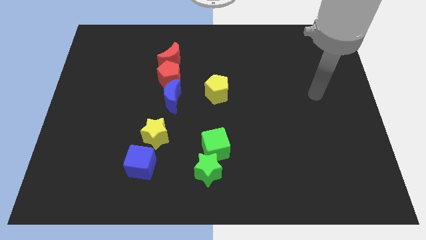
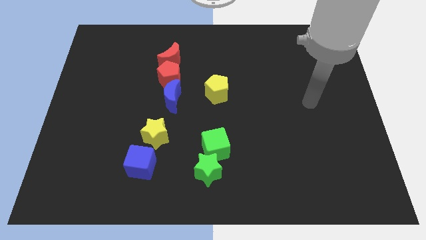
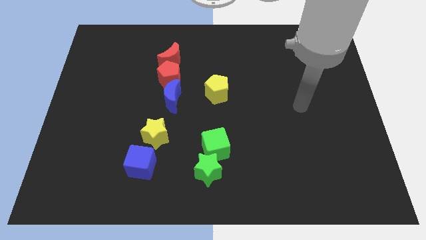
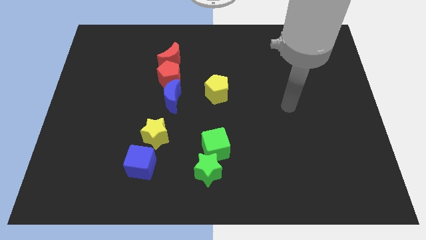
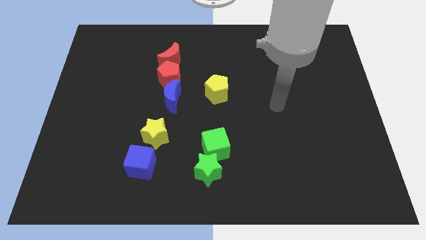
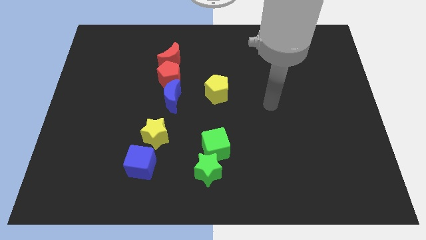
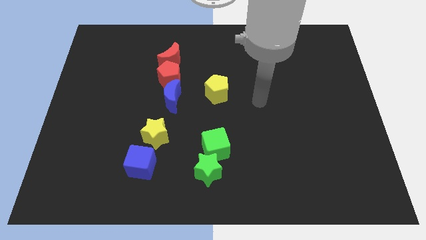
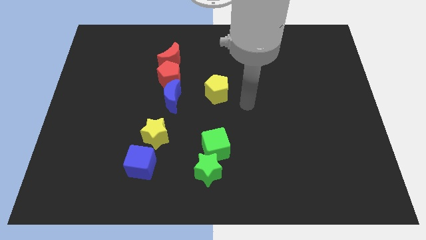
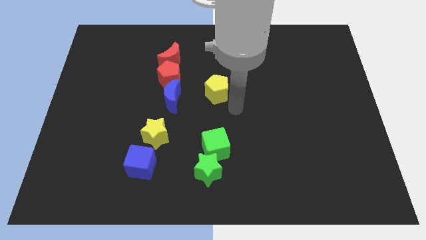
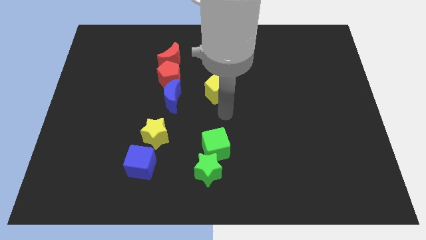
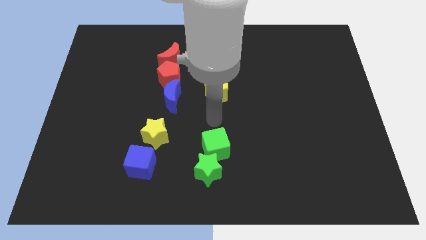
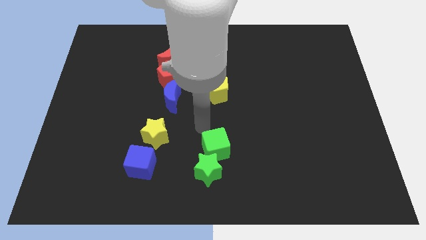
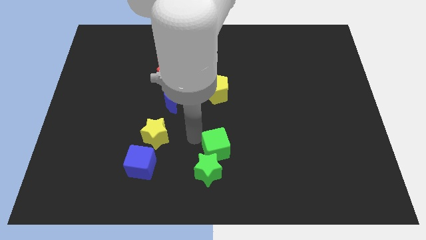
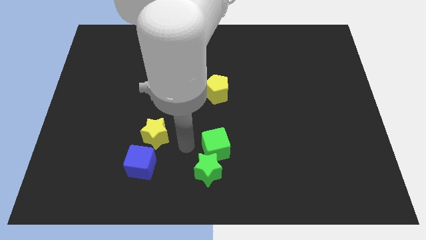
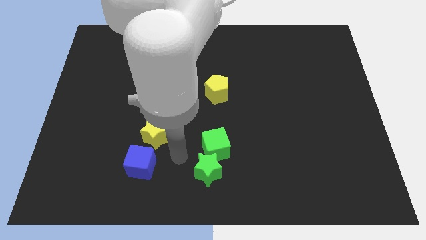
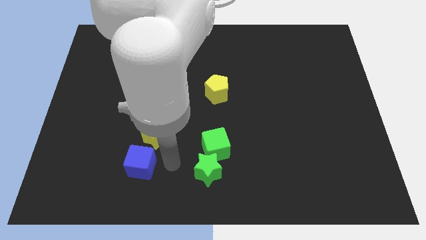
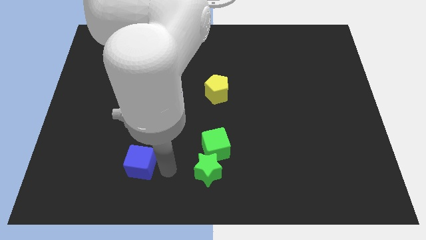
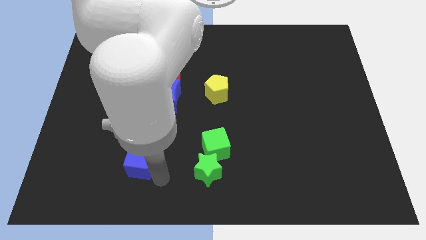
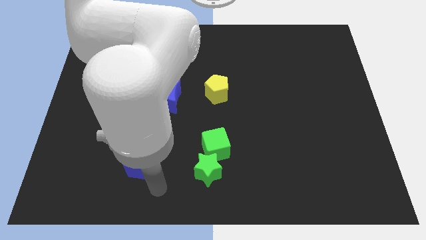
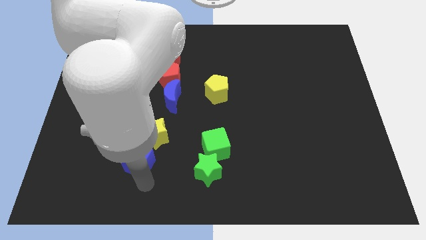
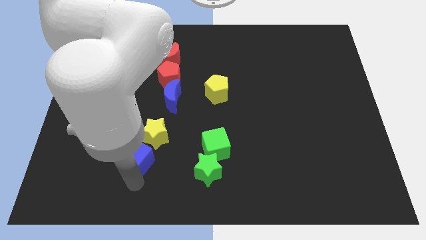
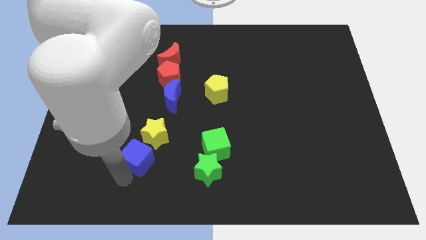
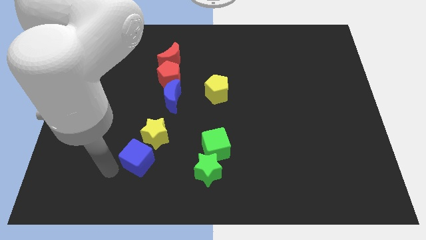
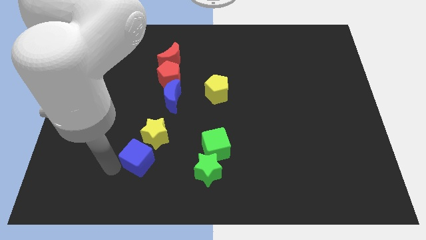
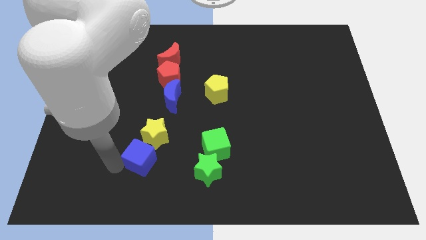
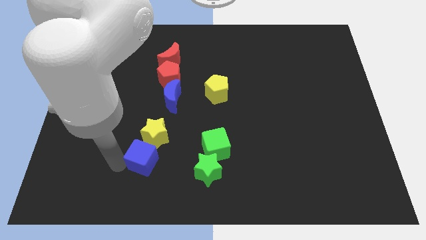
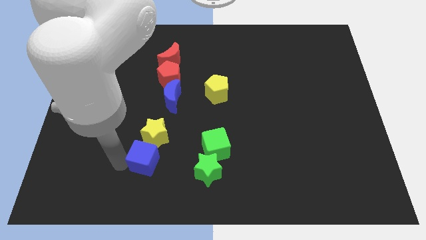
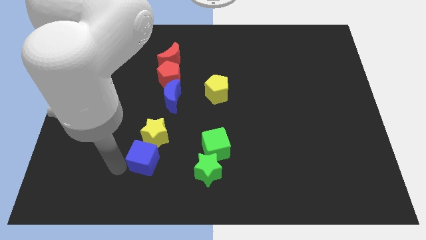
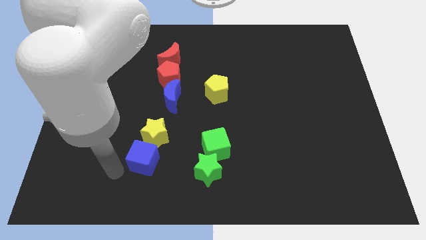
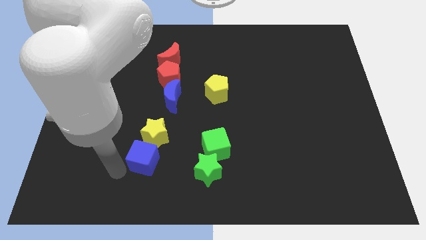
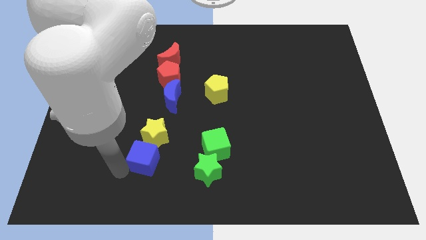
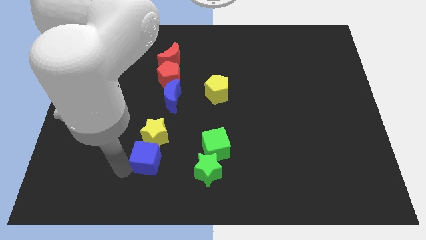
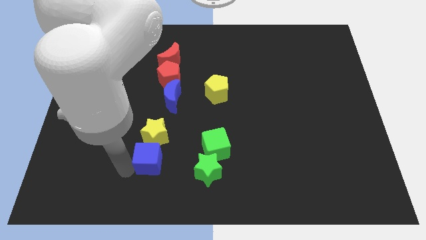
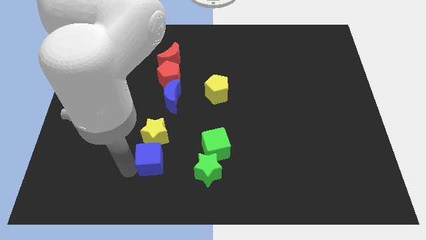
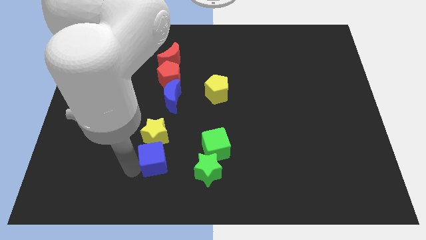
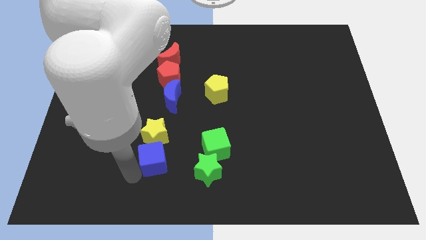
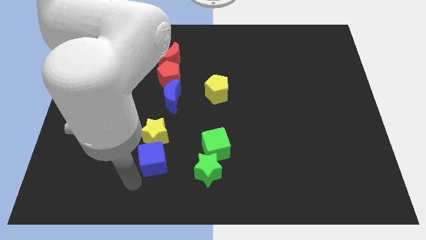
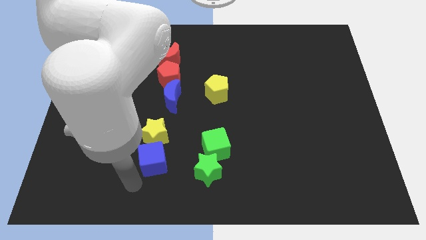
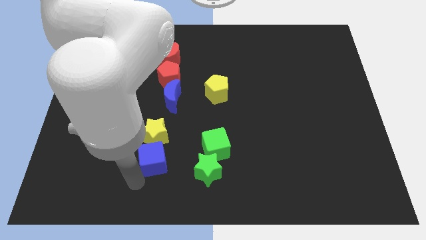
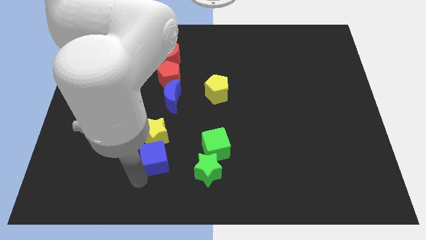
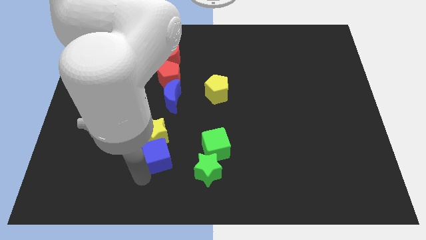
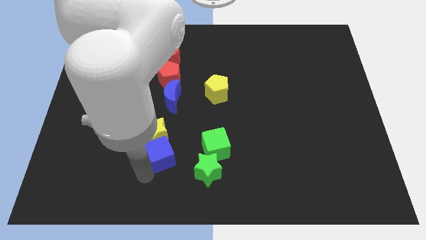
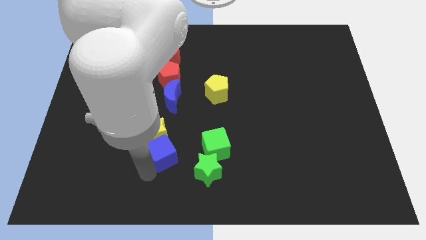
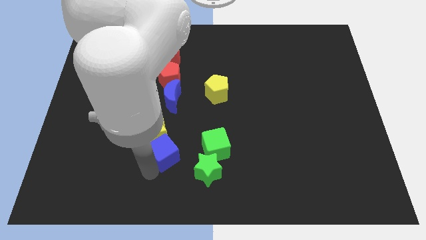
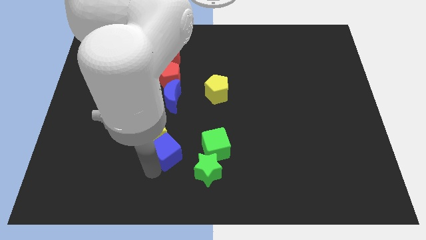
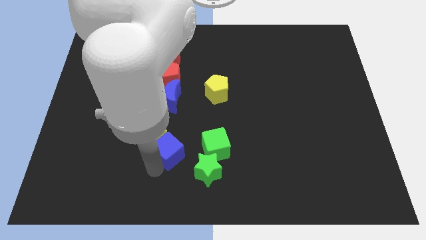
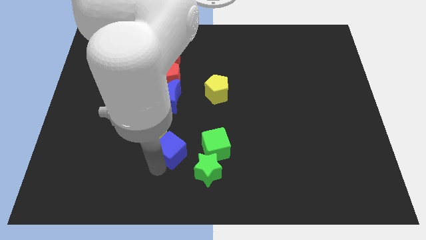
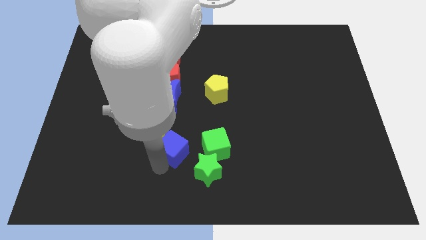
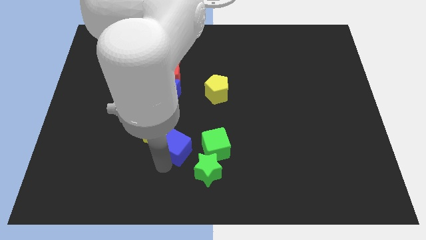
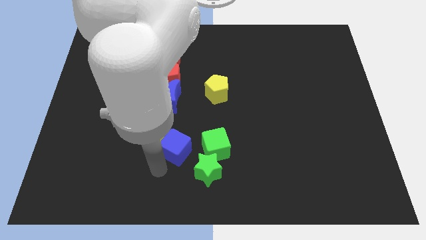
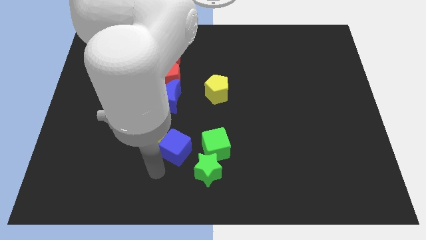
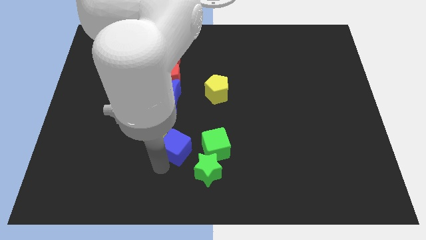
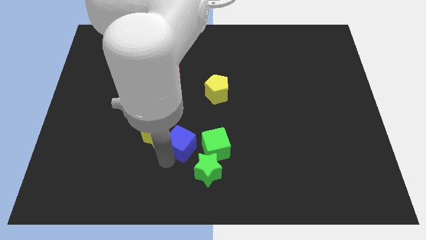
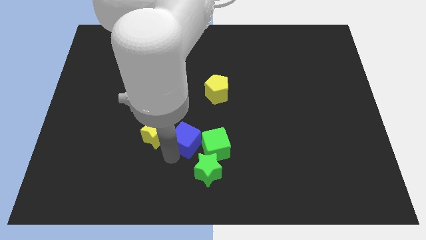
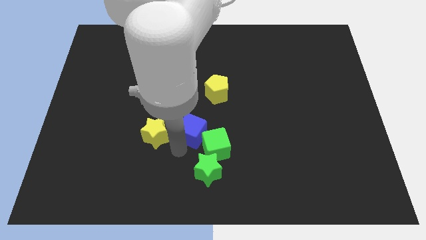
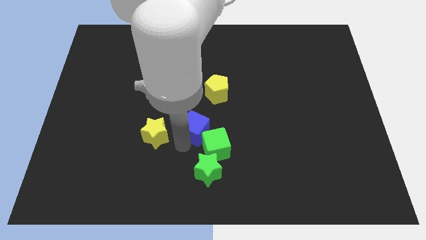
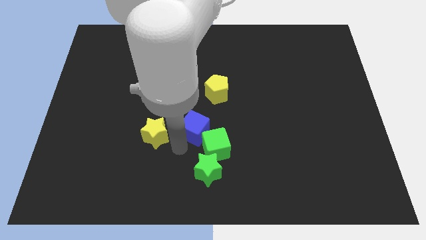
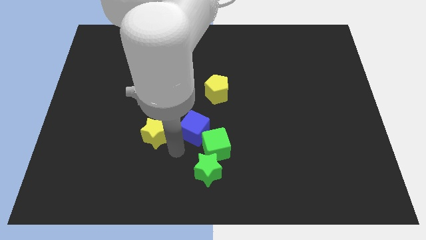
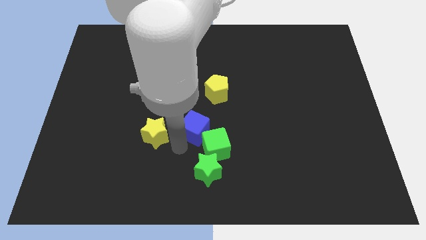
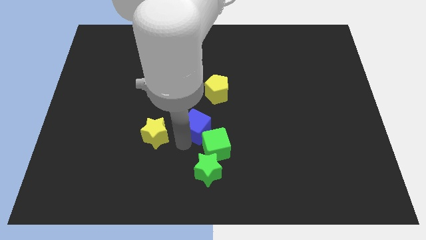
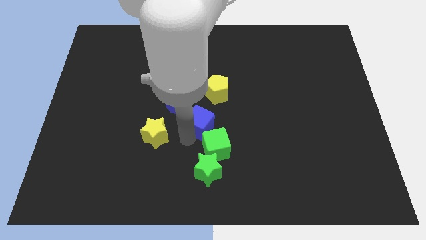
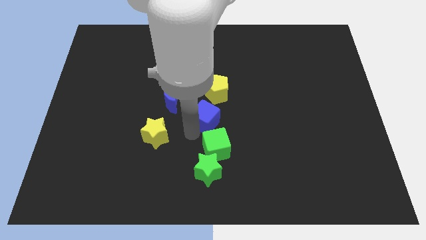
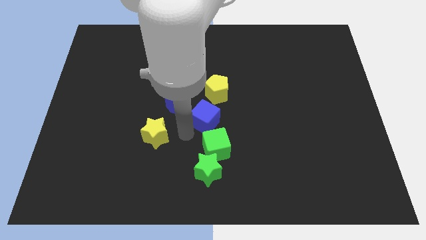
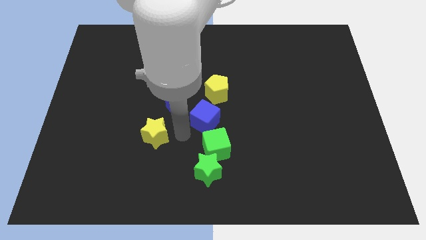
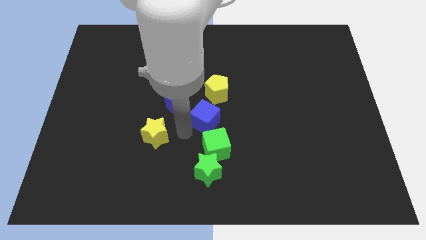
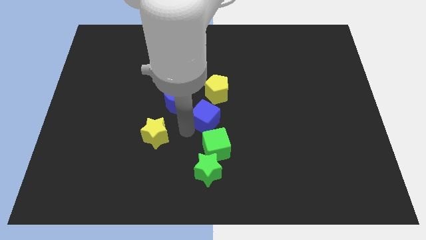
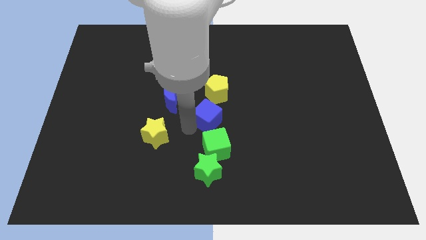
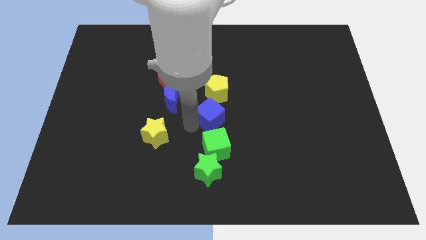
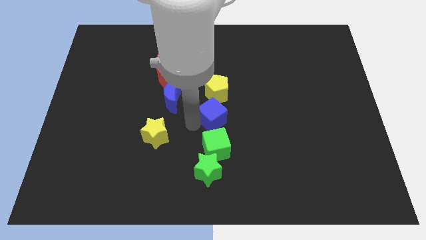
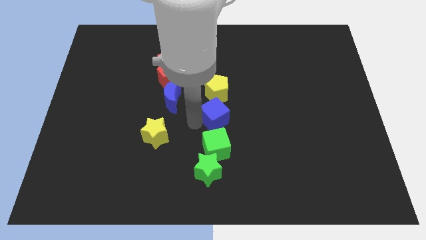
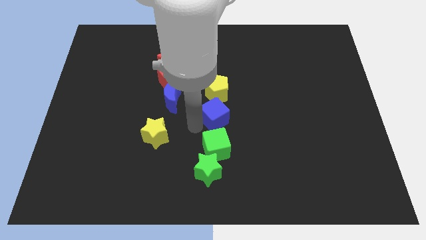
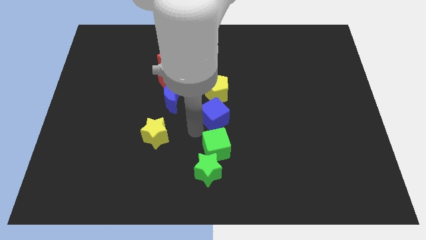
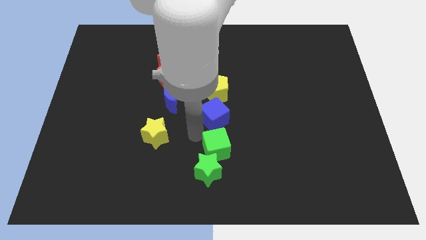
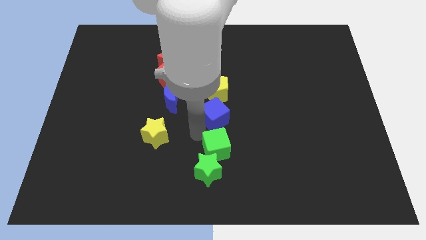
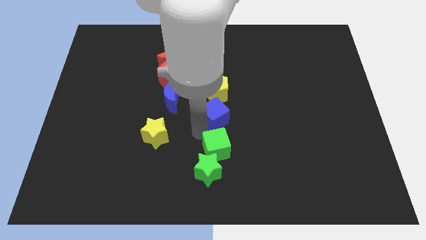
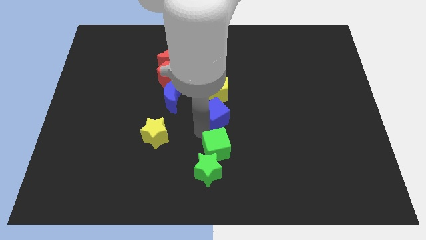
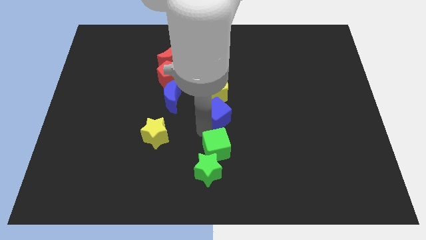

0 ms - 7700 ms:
slide the blue cube up and then right
